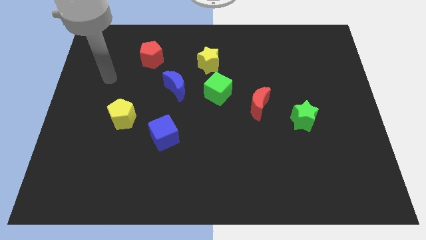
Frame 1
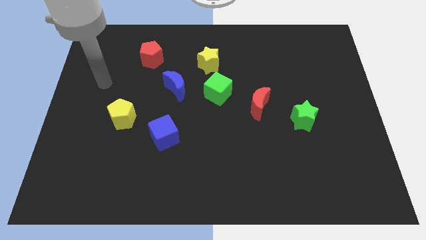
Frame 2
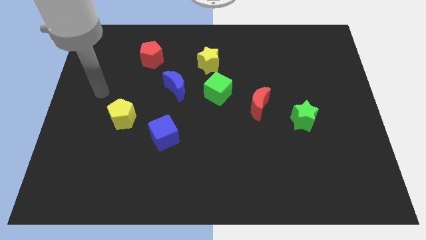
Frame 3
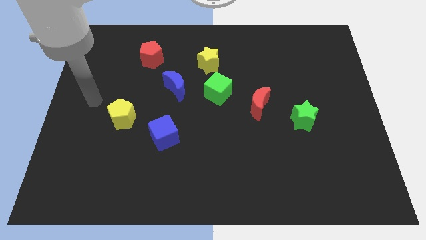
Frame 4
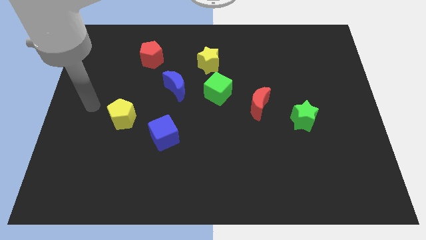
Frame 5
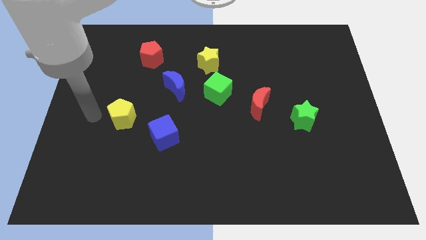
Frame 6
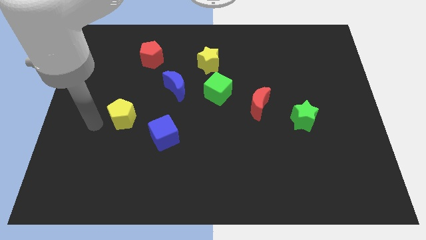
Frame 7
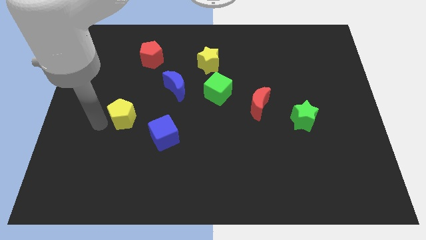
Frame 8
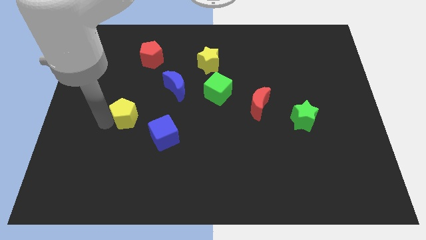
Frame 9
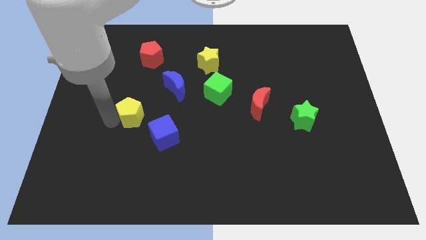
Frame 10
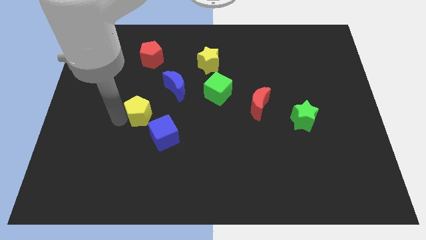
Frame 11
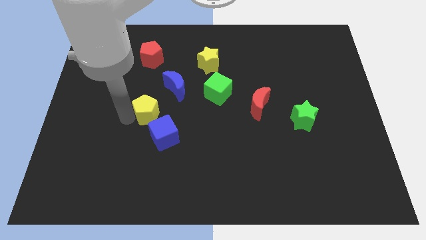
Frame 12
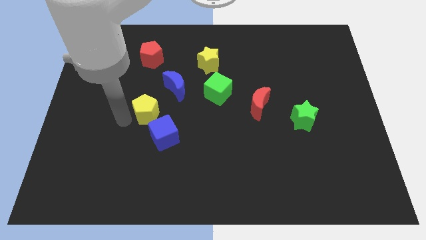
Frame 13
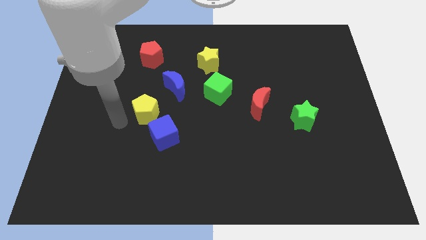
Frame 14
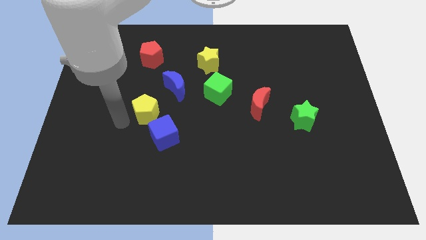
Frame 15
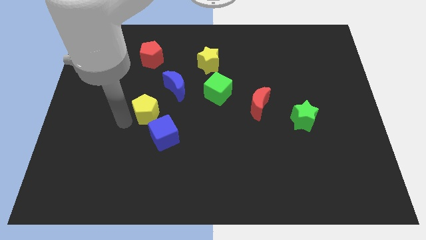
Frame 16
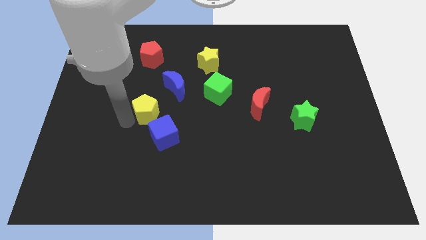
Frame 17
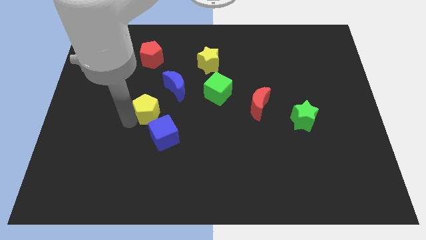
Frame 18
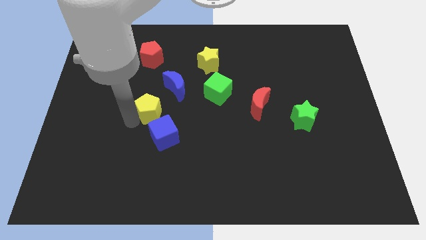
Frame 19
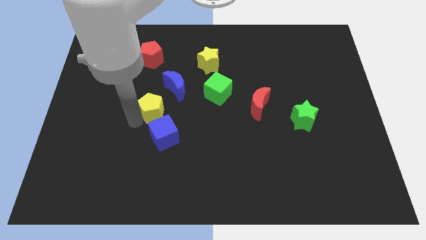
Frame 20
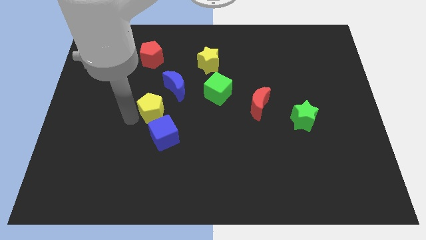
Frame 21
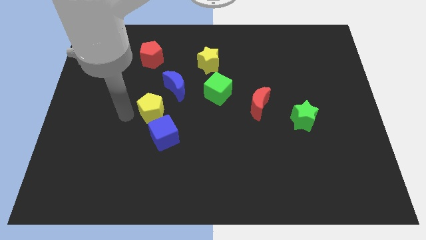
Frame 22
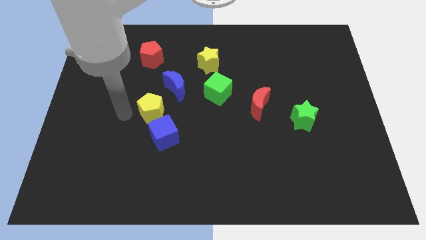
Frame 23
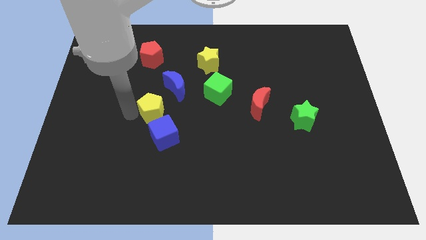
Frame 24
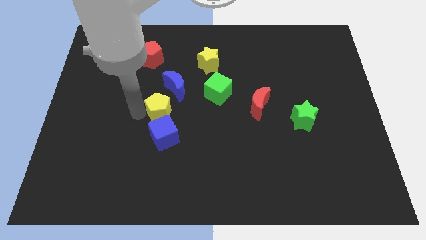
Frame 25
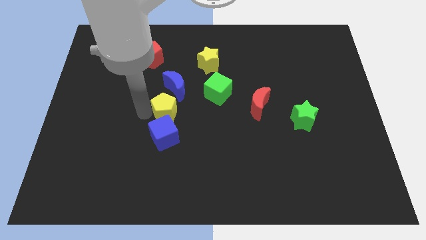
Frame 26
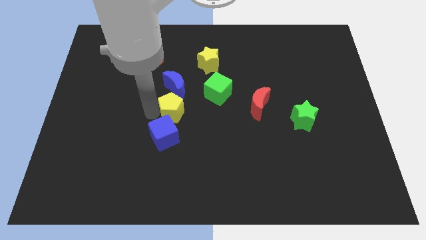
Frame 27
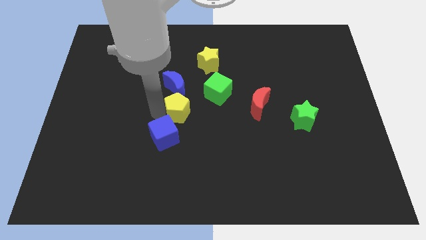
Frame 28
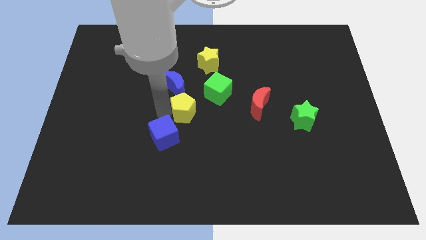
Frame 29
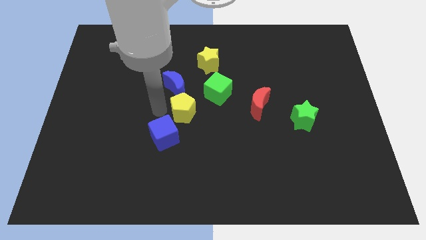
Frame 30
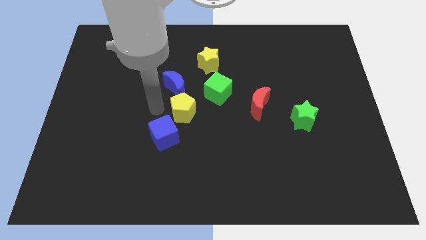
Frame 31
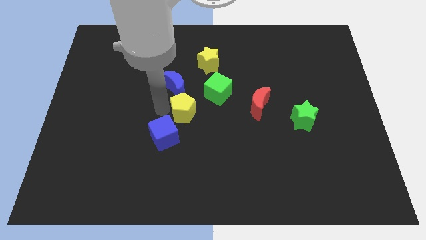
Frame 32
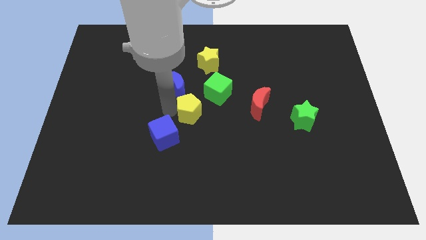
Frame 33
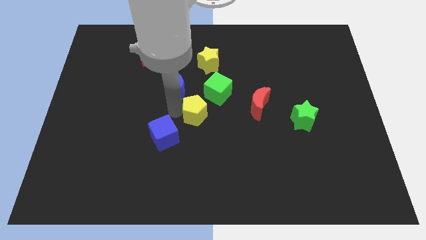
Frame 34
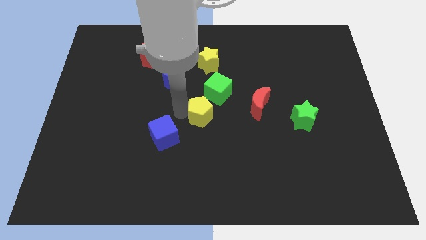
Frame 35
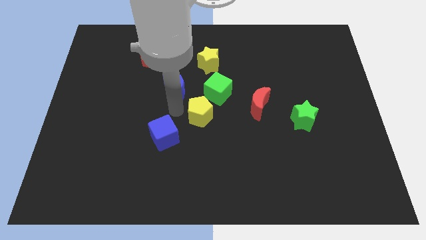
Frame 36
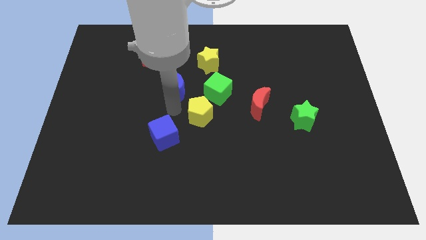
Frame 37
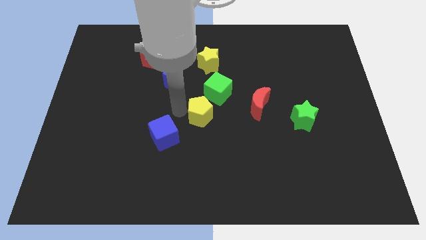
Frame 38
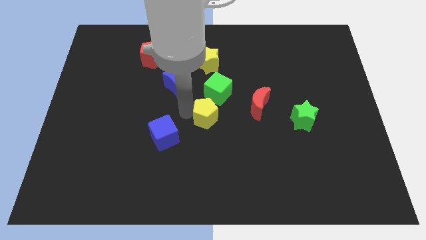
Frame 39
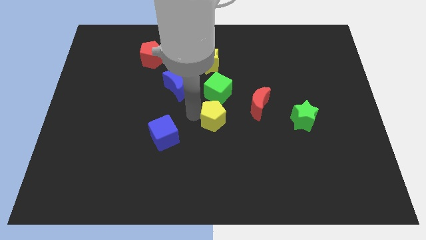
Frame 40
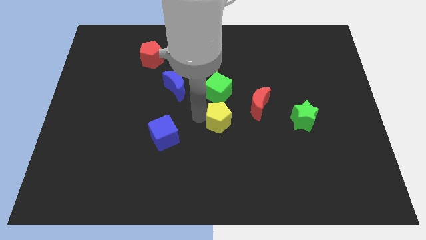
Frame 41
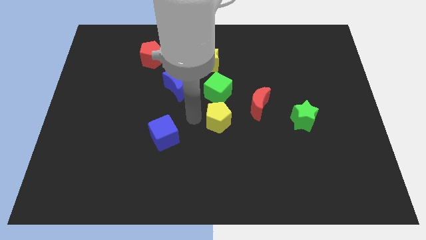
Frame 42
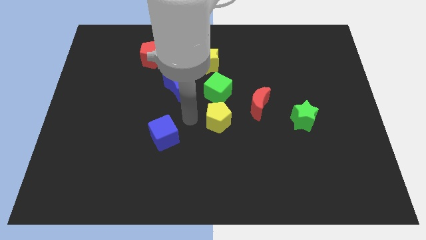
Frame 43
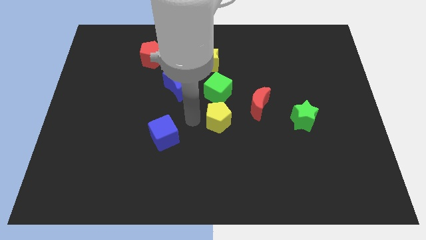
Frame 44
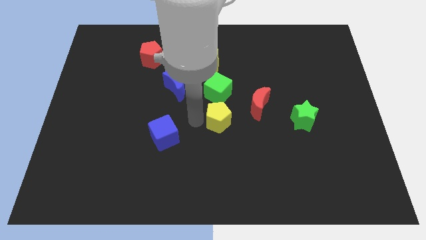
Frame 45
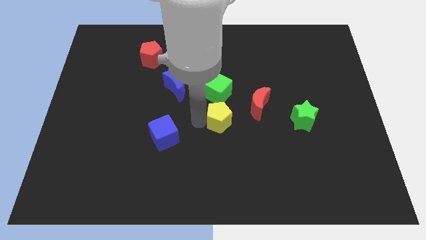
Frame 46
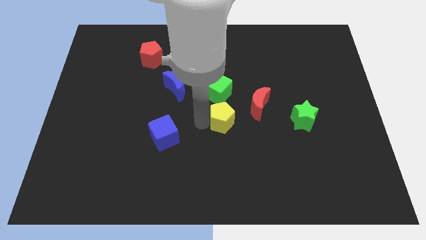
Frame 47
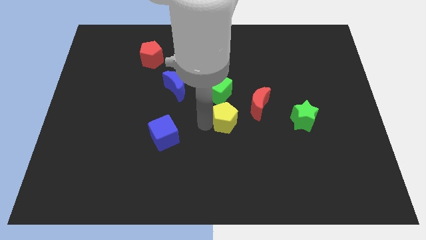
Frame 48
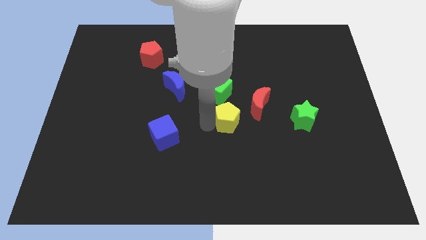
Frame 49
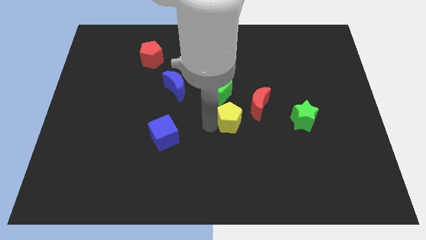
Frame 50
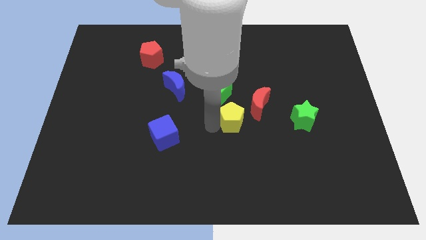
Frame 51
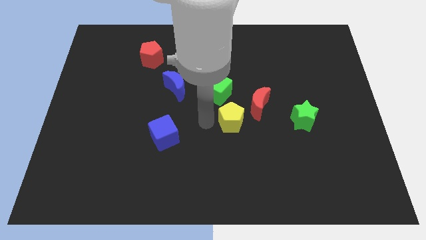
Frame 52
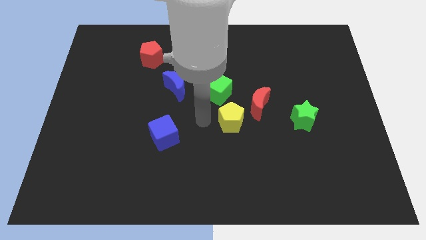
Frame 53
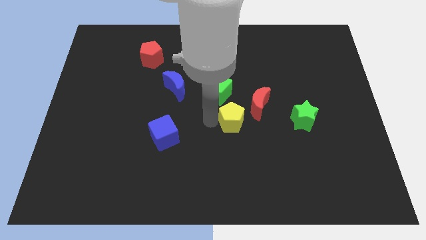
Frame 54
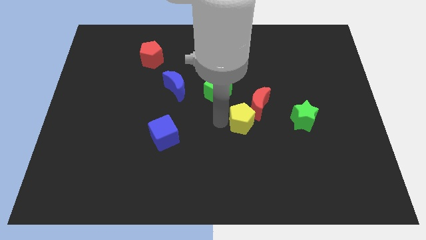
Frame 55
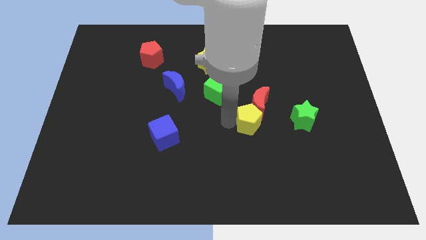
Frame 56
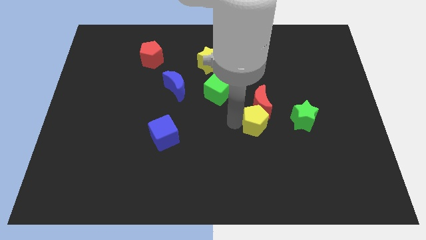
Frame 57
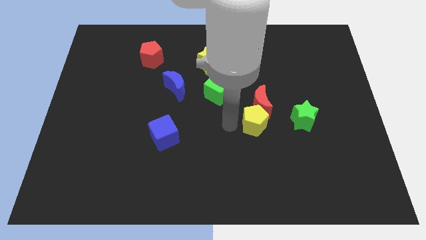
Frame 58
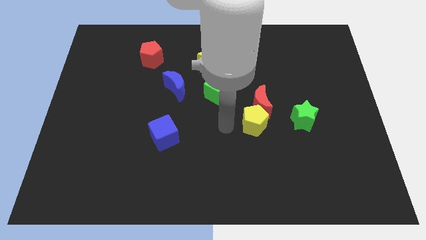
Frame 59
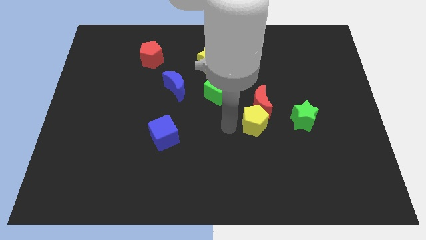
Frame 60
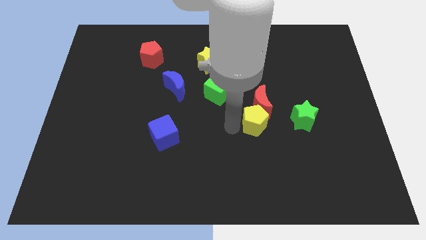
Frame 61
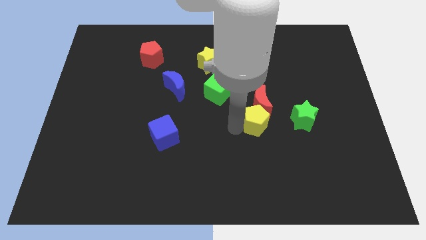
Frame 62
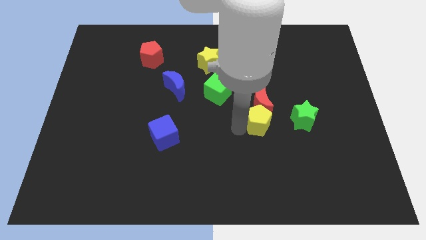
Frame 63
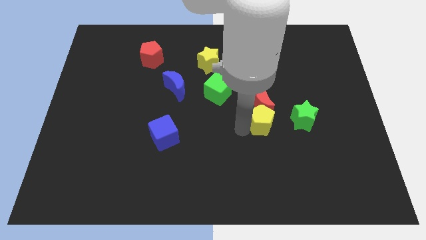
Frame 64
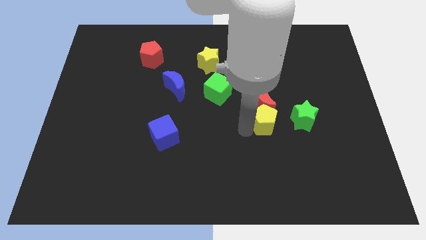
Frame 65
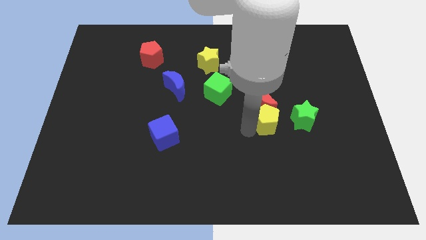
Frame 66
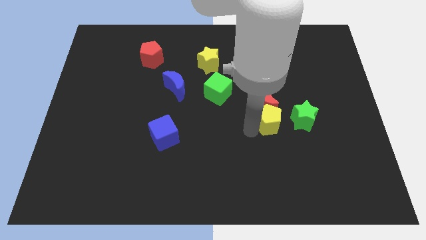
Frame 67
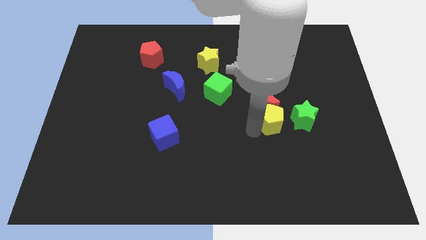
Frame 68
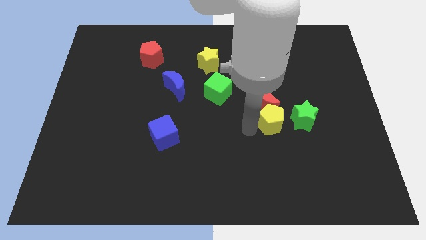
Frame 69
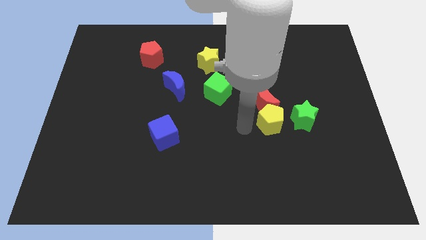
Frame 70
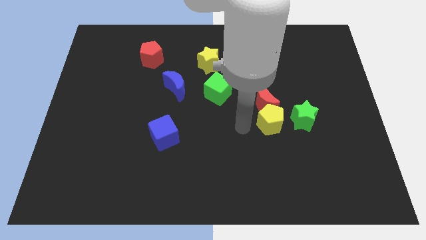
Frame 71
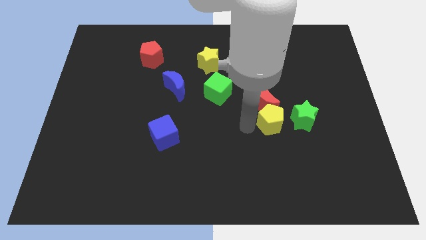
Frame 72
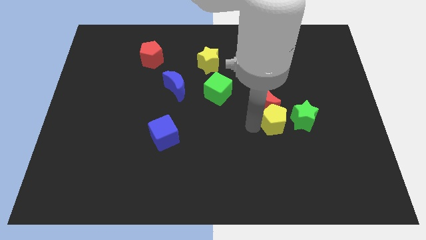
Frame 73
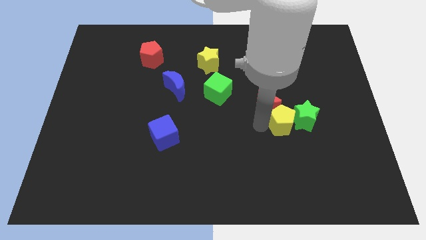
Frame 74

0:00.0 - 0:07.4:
slide the yellow pentagon close to the green star
